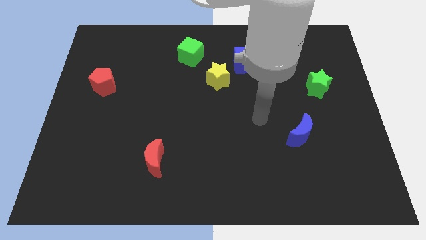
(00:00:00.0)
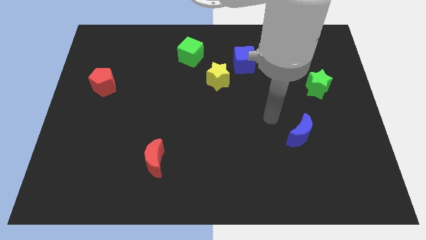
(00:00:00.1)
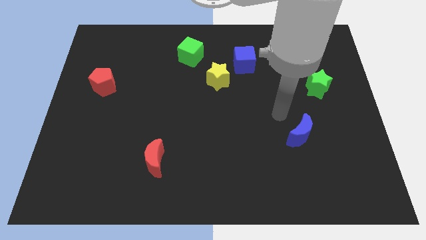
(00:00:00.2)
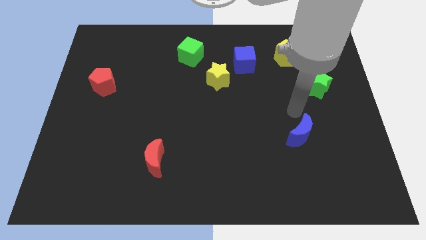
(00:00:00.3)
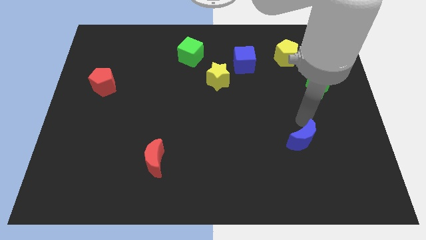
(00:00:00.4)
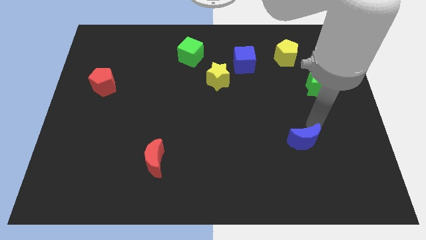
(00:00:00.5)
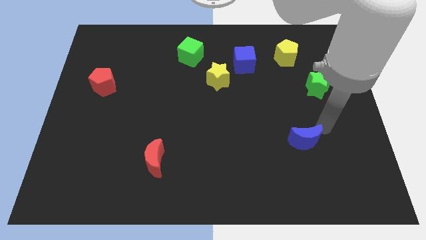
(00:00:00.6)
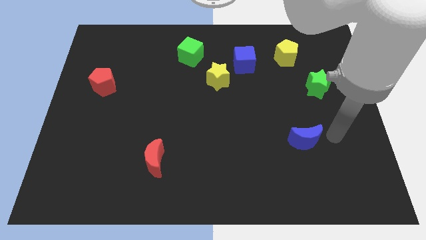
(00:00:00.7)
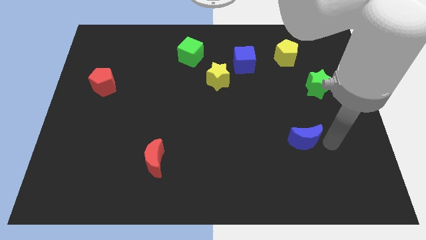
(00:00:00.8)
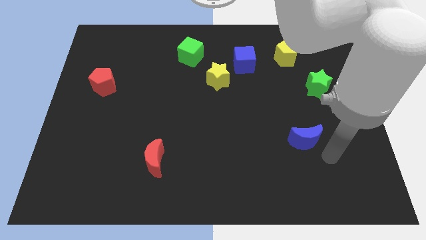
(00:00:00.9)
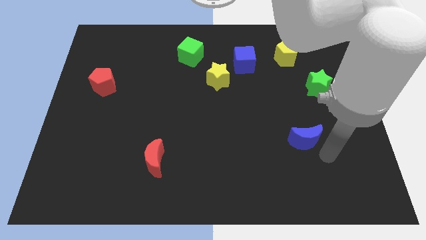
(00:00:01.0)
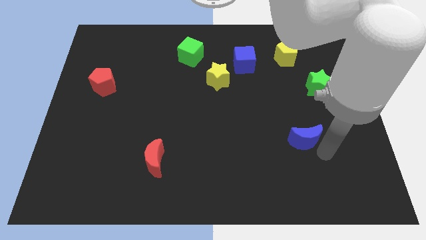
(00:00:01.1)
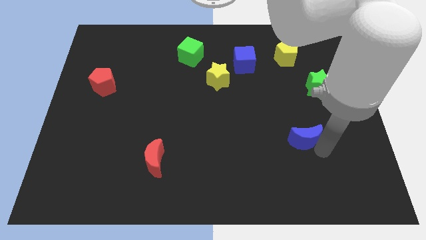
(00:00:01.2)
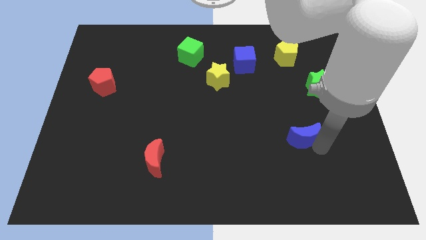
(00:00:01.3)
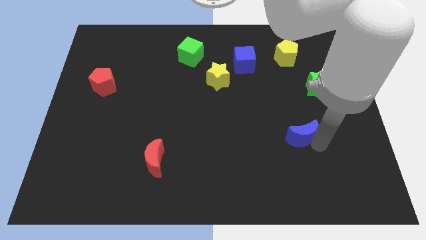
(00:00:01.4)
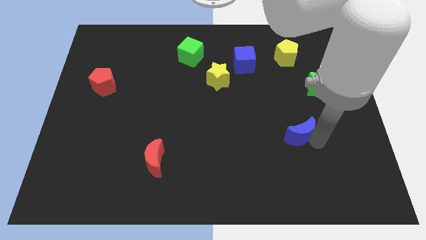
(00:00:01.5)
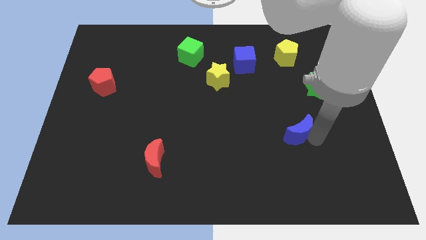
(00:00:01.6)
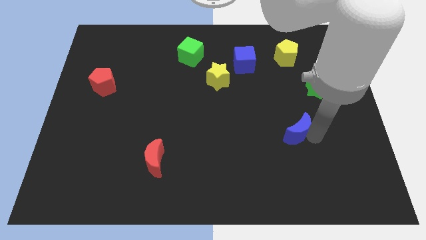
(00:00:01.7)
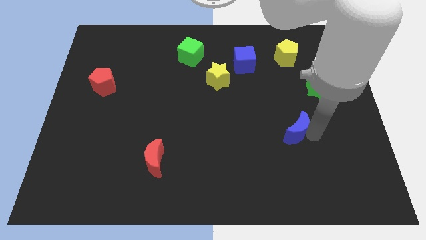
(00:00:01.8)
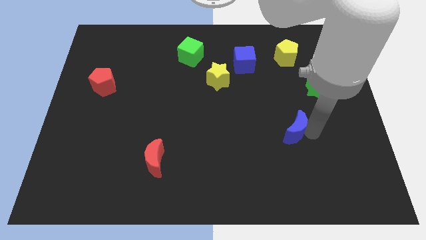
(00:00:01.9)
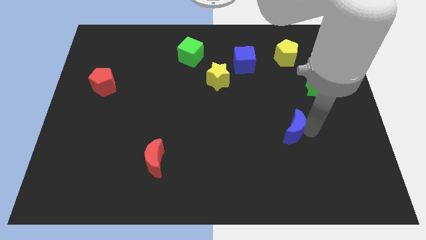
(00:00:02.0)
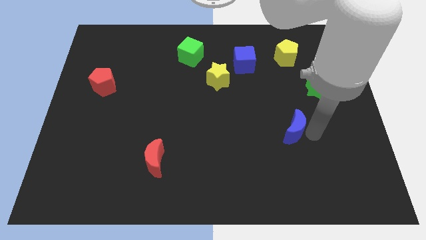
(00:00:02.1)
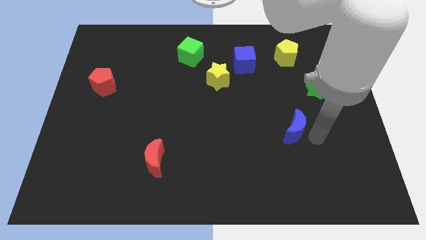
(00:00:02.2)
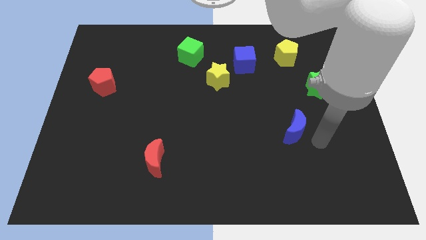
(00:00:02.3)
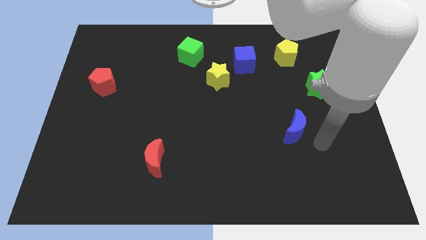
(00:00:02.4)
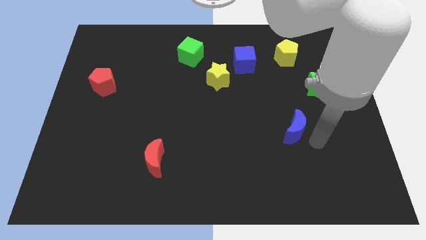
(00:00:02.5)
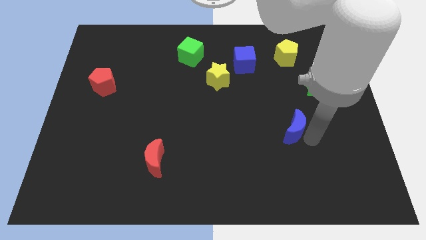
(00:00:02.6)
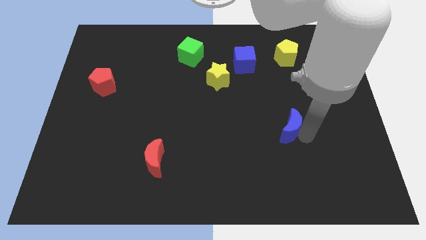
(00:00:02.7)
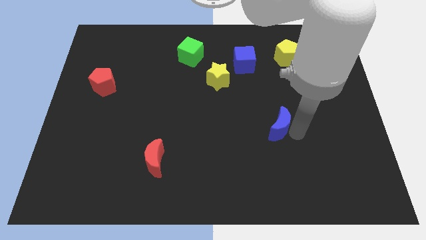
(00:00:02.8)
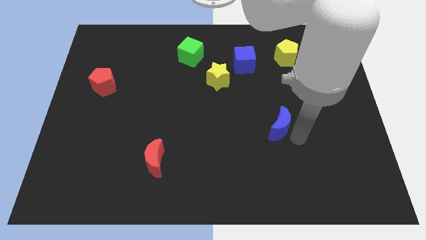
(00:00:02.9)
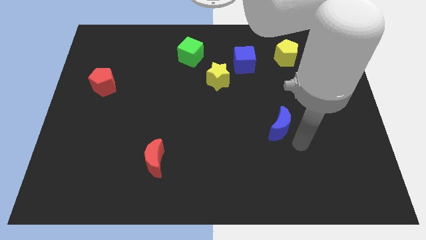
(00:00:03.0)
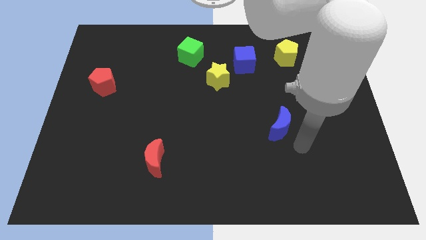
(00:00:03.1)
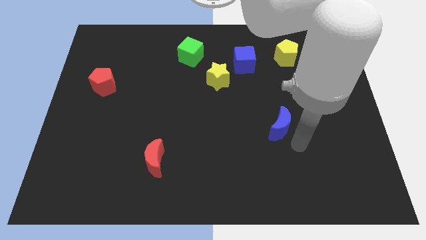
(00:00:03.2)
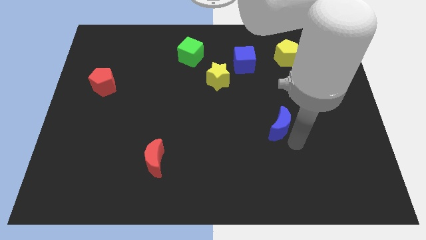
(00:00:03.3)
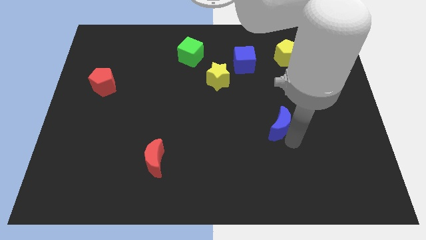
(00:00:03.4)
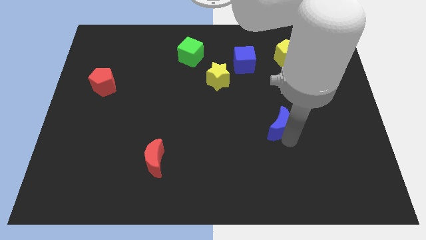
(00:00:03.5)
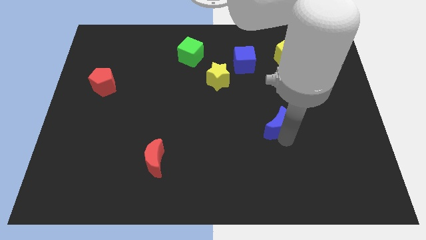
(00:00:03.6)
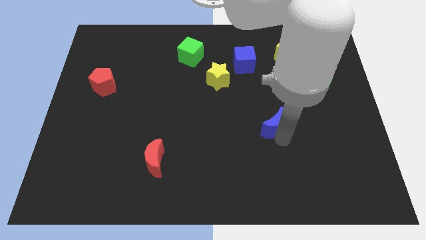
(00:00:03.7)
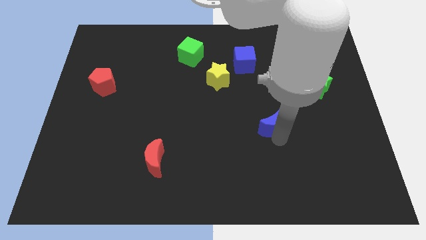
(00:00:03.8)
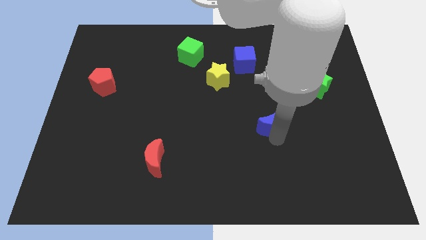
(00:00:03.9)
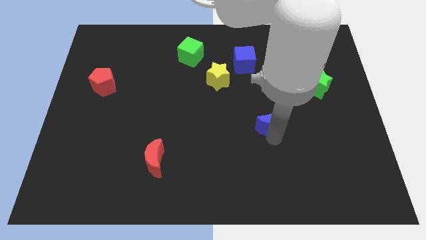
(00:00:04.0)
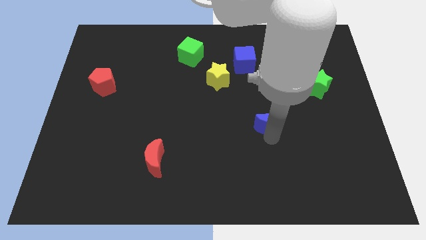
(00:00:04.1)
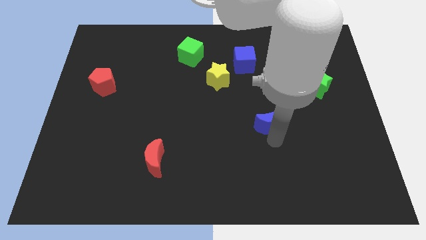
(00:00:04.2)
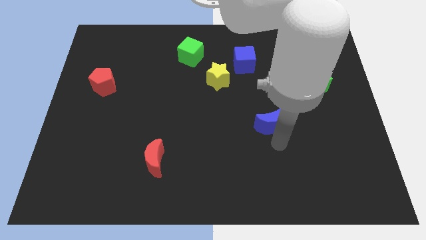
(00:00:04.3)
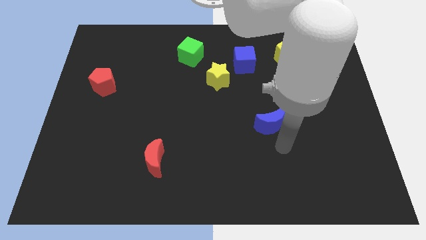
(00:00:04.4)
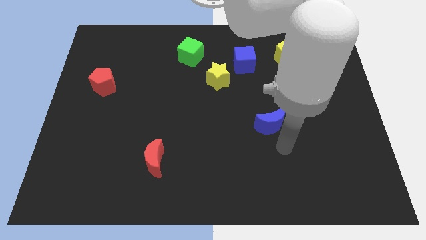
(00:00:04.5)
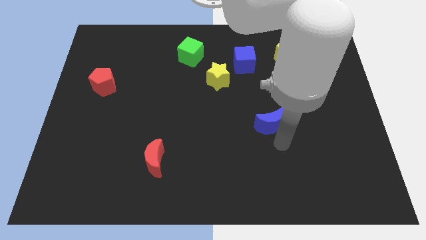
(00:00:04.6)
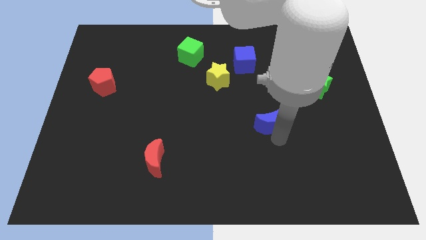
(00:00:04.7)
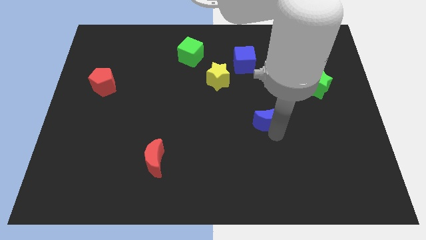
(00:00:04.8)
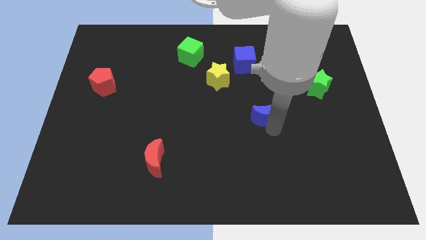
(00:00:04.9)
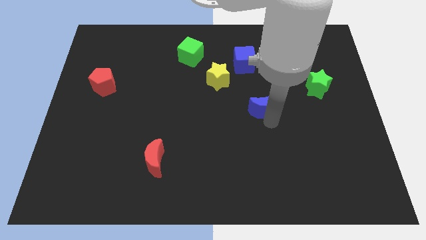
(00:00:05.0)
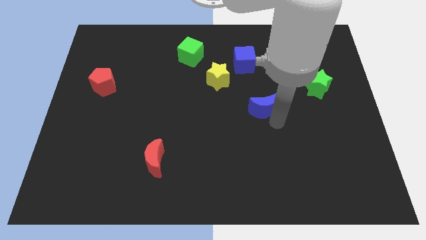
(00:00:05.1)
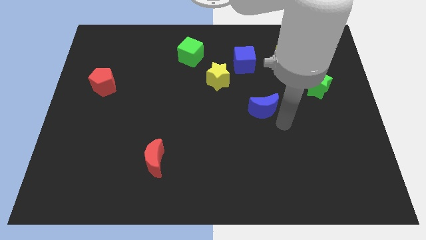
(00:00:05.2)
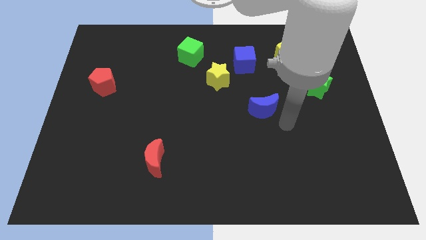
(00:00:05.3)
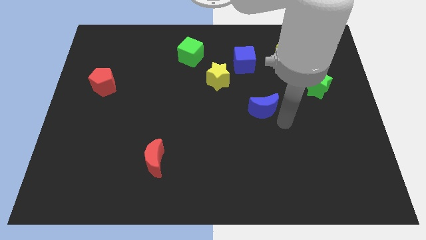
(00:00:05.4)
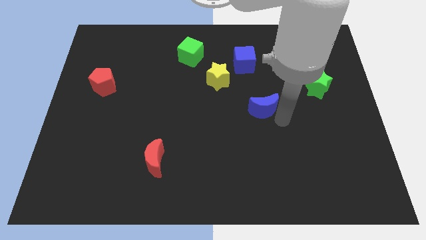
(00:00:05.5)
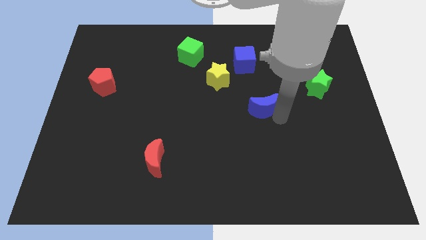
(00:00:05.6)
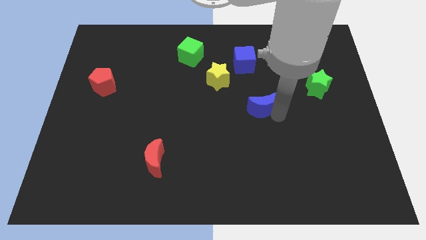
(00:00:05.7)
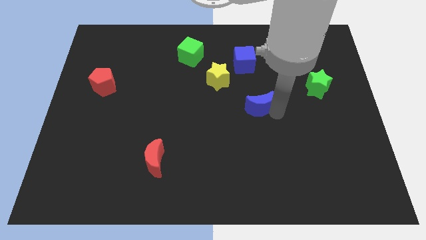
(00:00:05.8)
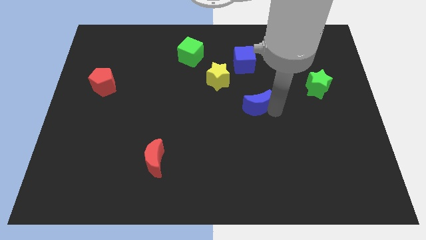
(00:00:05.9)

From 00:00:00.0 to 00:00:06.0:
move the blue moon diagonally down and to the right of the yellow star
